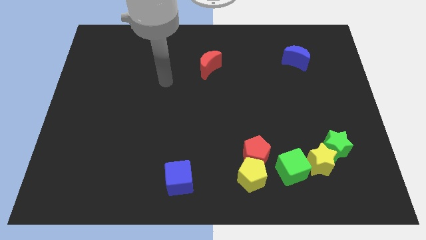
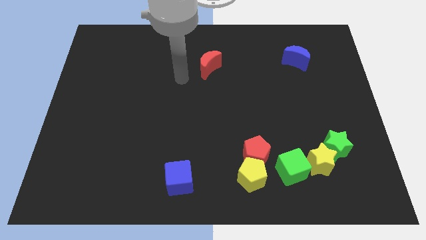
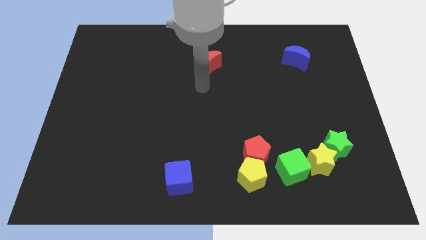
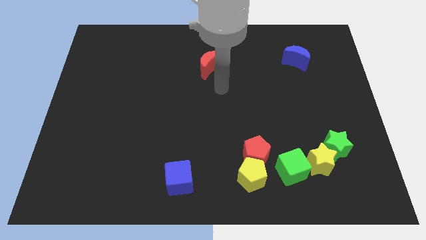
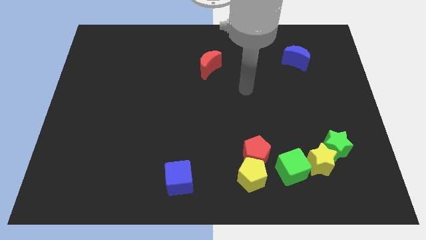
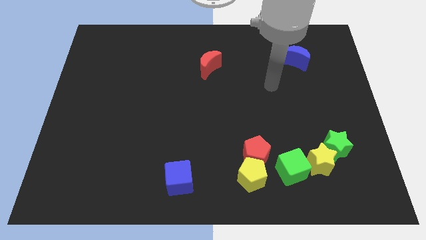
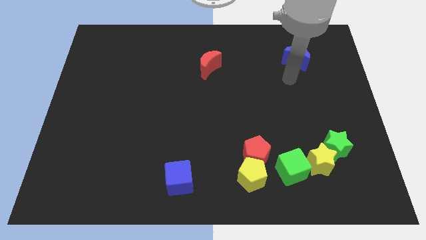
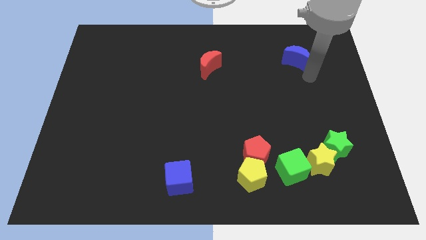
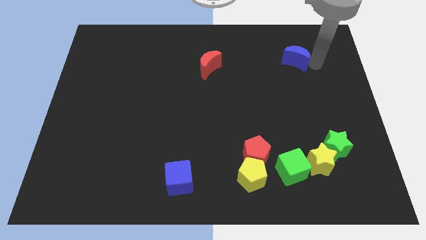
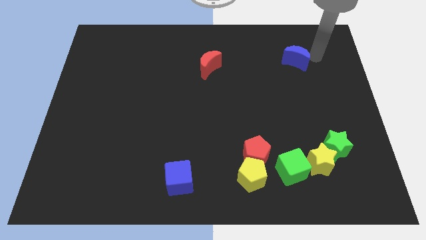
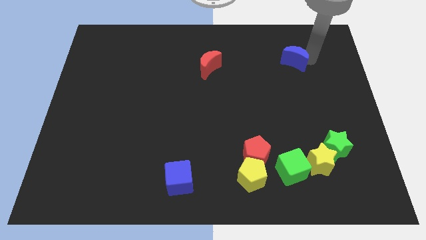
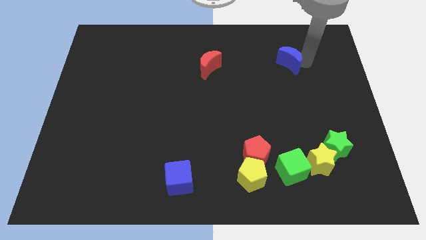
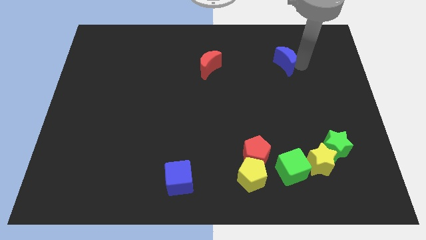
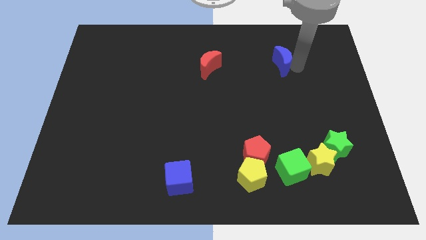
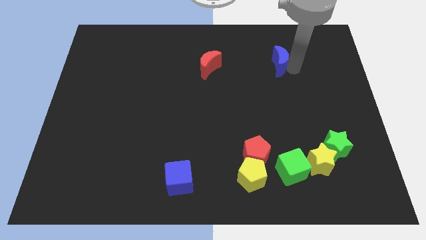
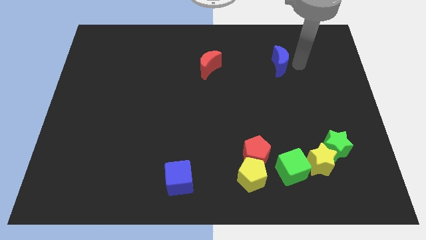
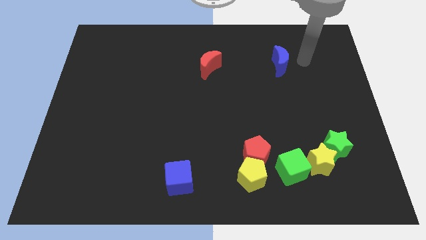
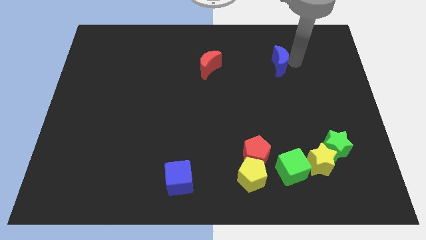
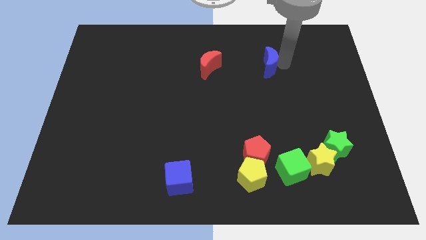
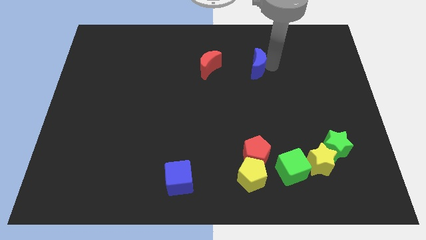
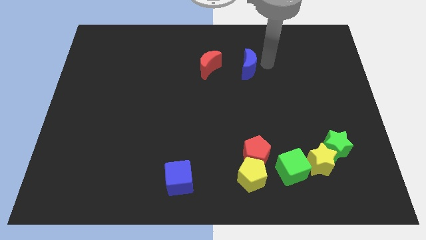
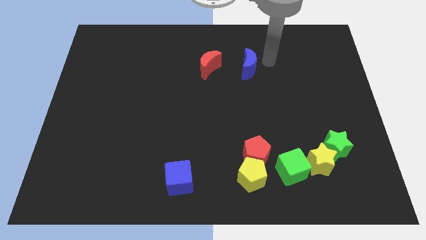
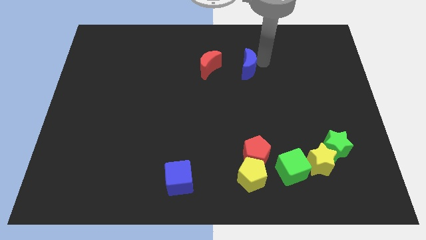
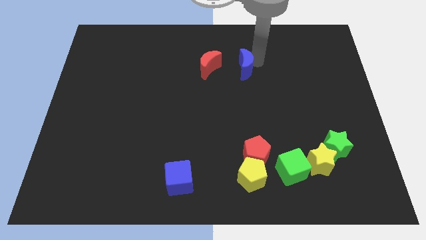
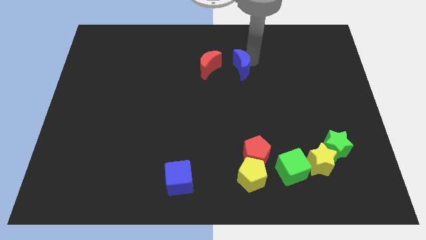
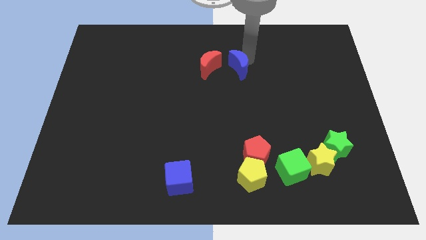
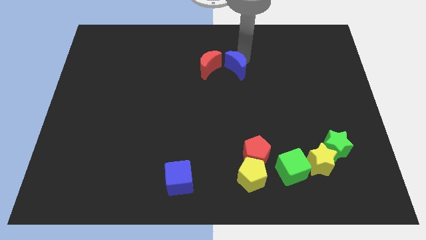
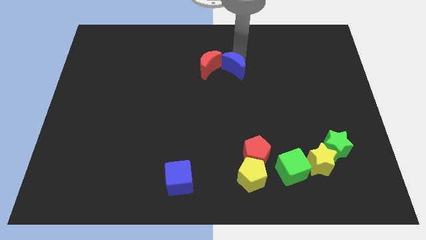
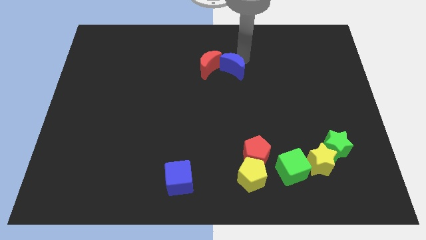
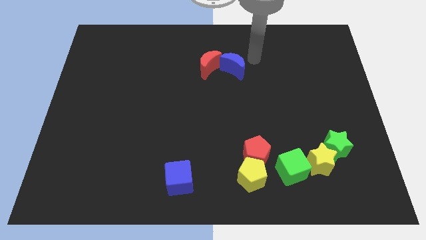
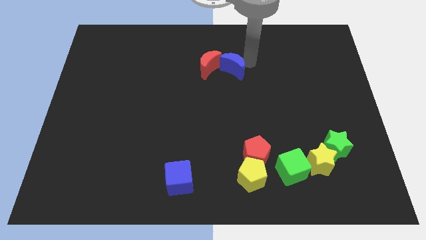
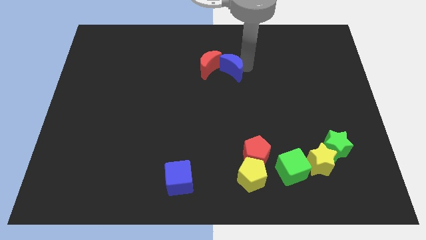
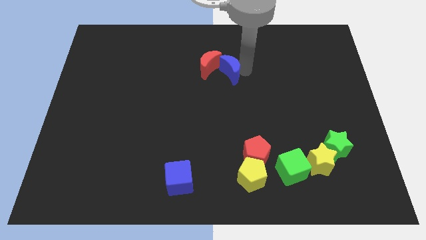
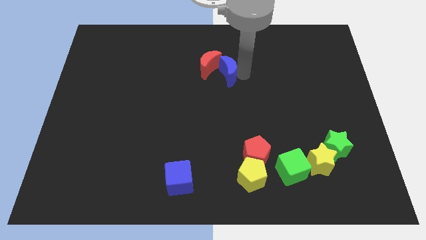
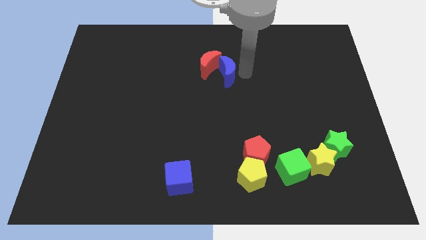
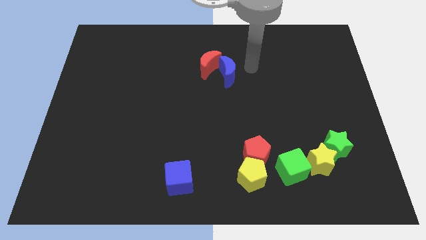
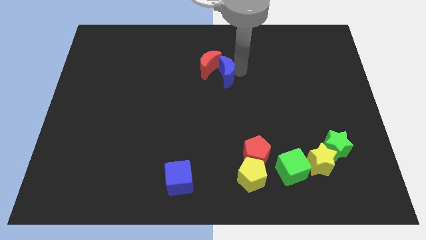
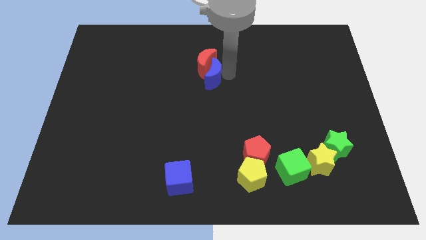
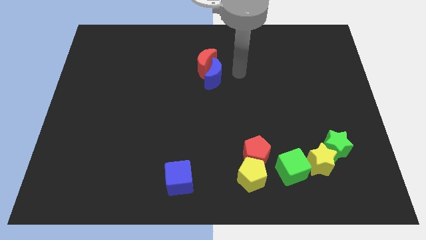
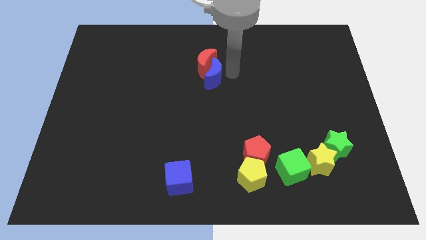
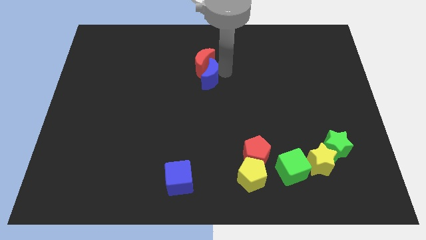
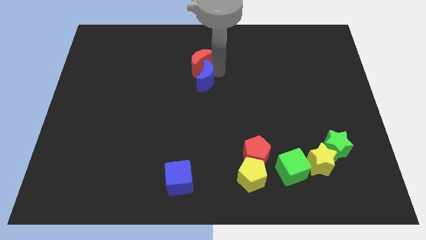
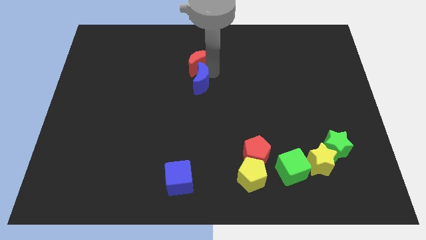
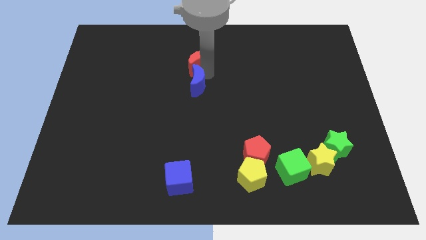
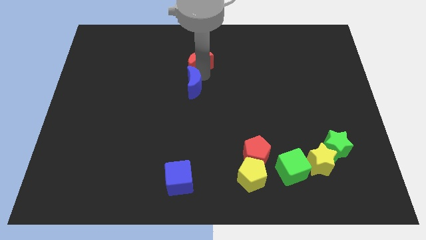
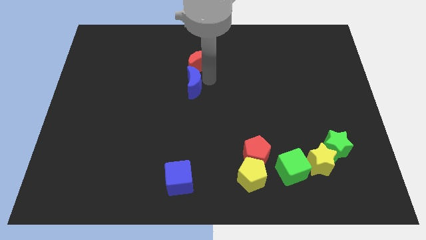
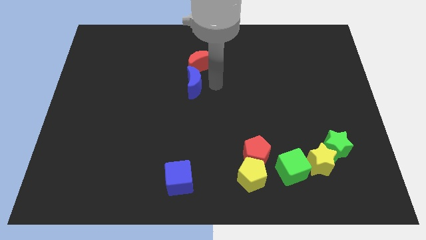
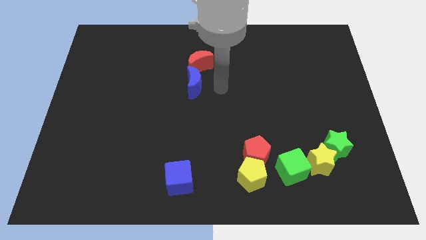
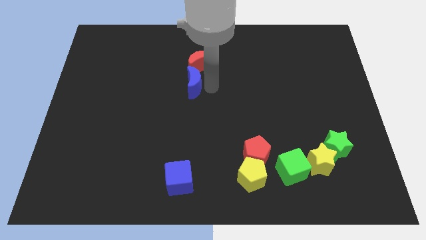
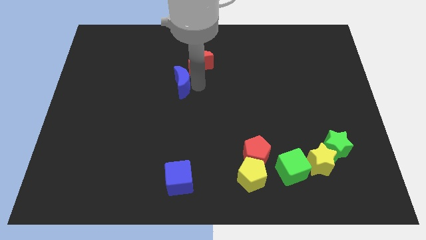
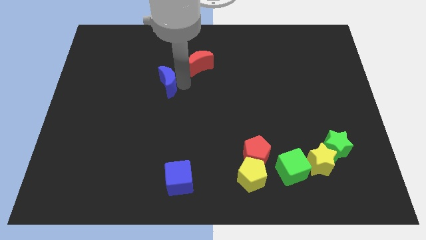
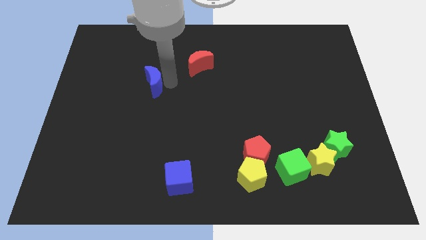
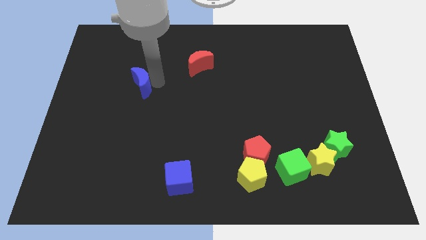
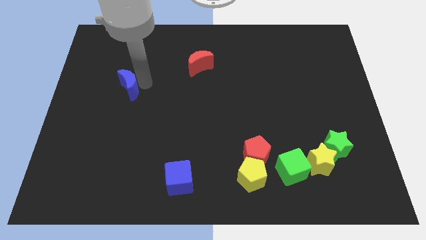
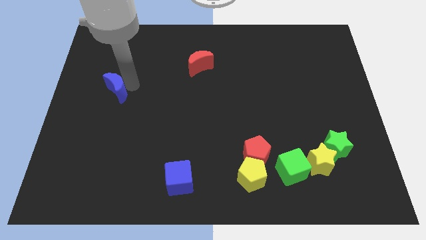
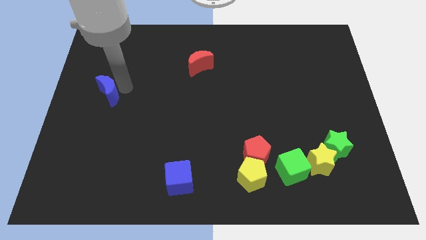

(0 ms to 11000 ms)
put the blue moon to the center left

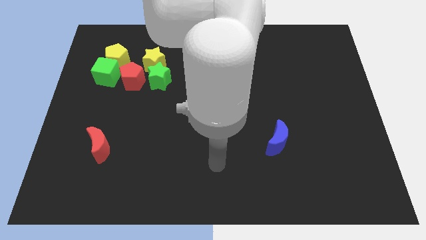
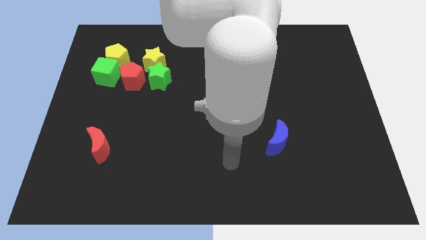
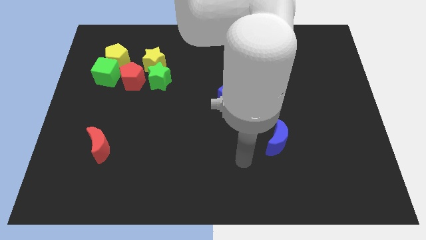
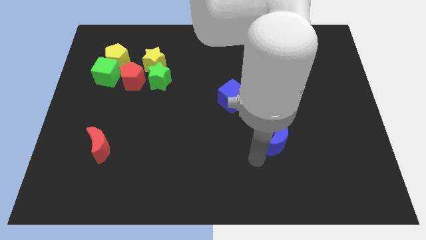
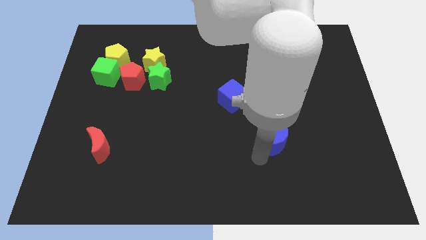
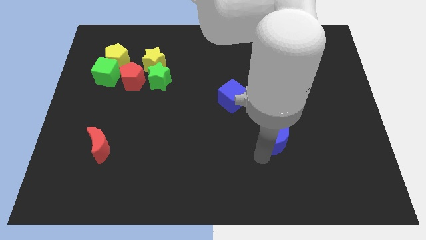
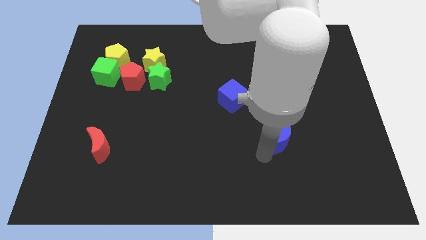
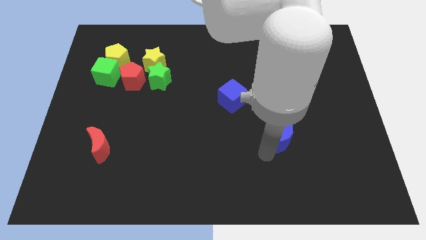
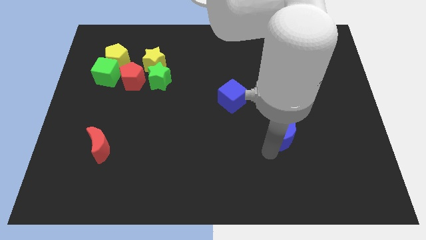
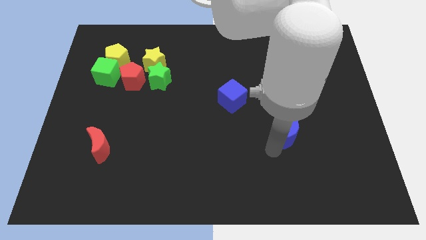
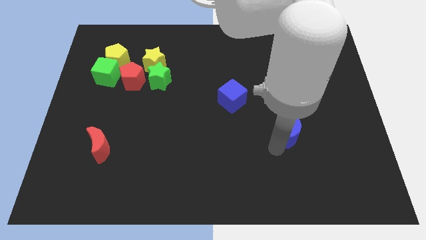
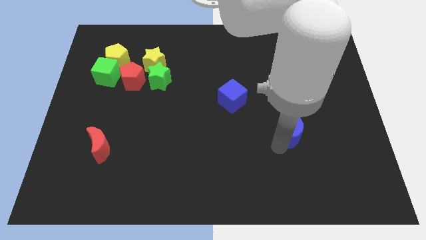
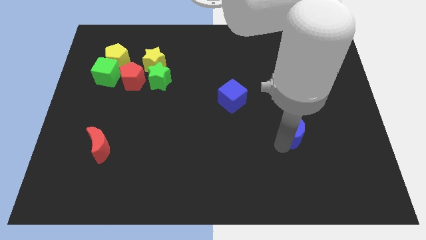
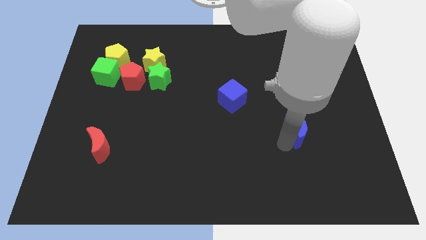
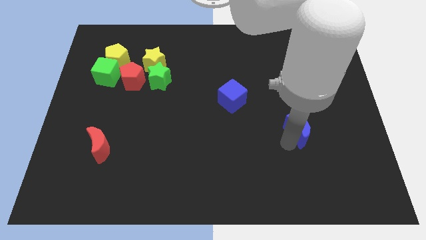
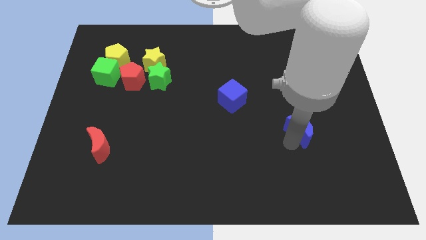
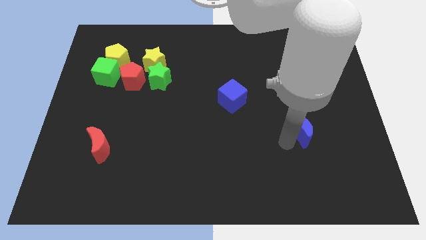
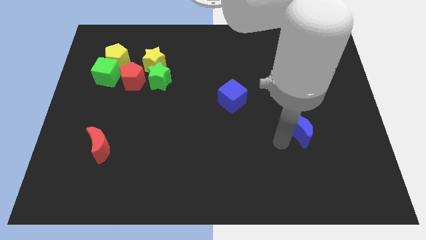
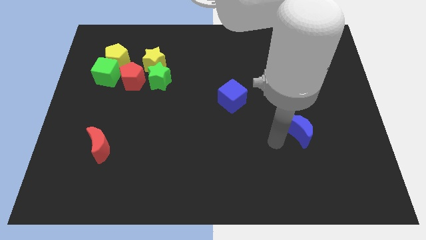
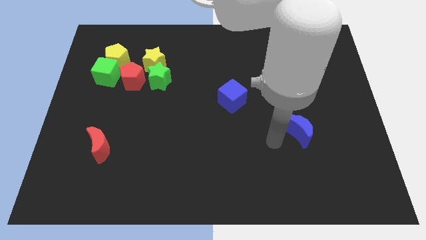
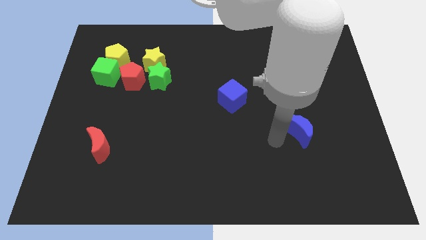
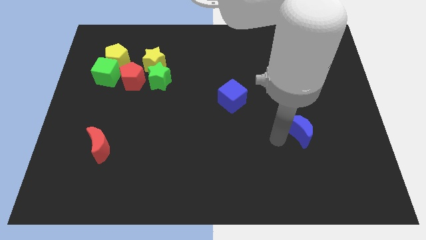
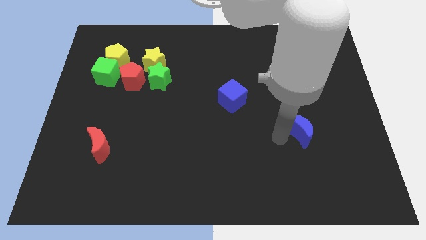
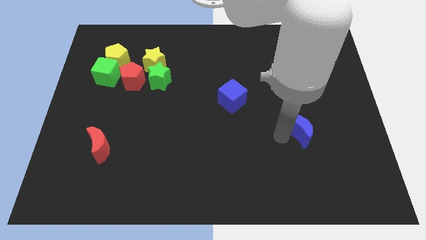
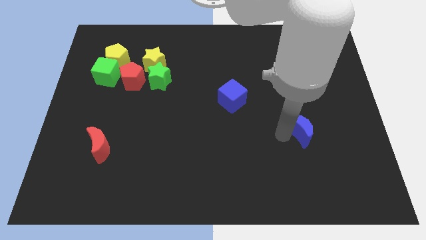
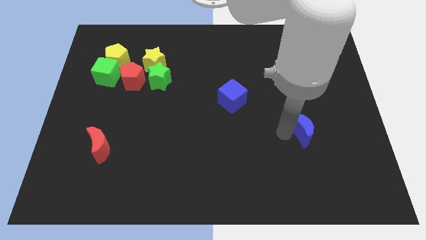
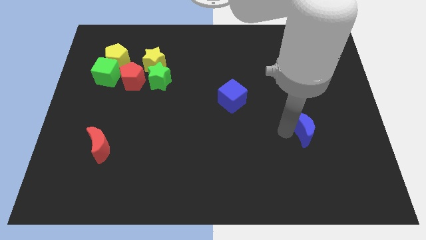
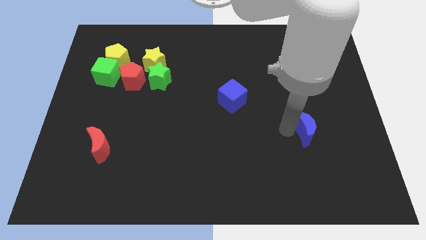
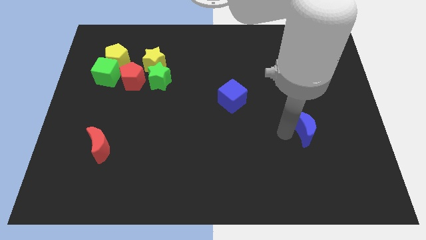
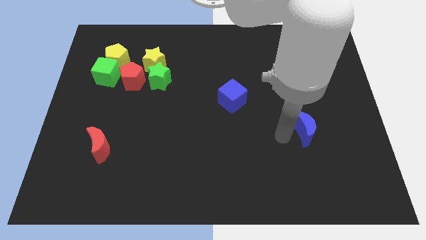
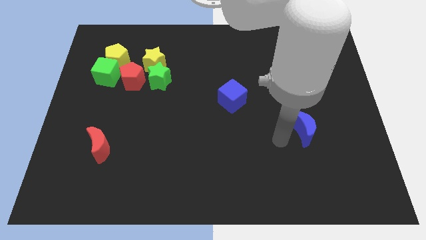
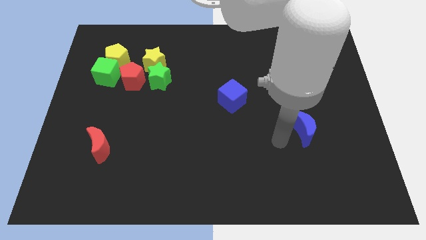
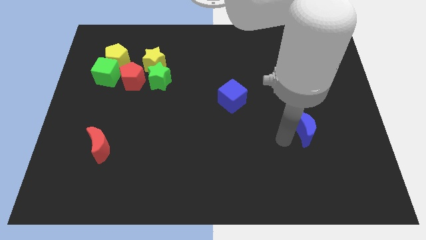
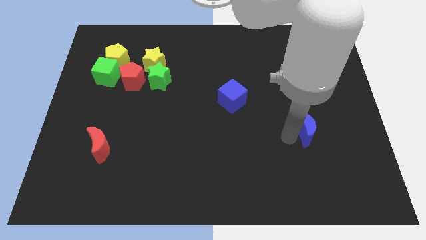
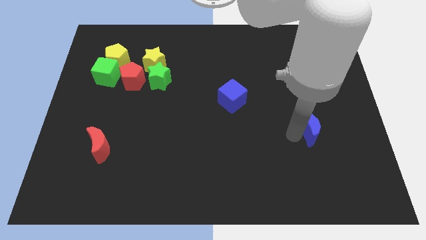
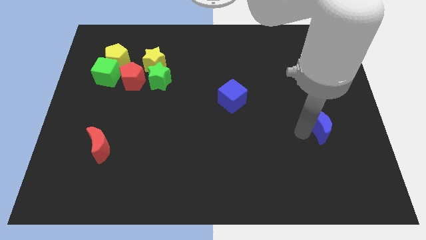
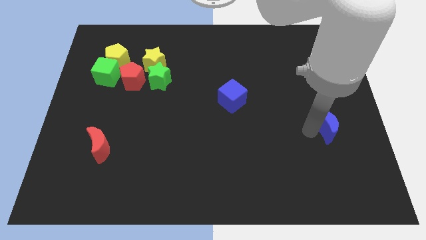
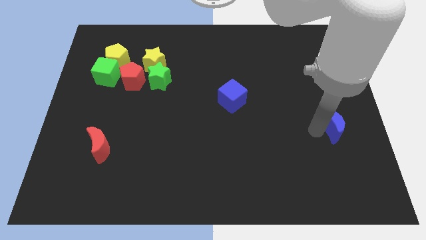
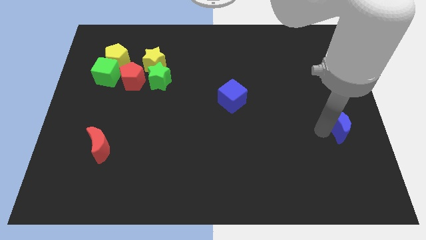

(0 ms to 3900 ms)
put the blue moon to the right side
